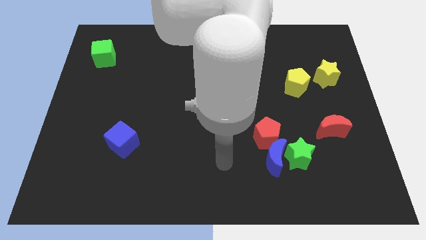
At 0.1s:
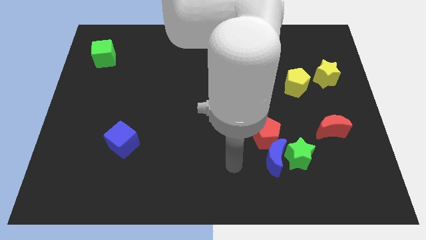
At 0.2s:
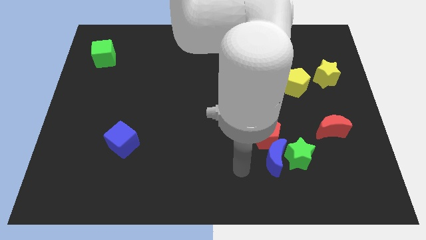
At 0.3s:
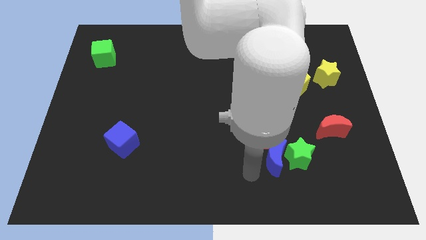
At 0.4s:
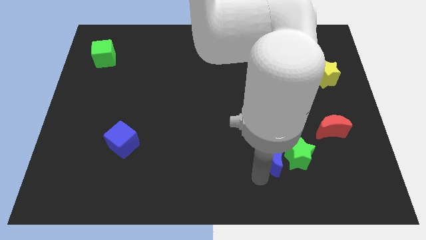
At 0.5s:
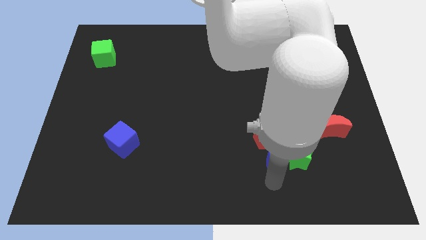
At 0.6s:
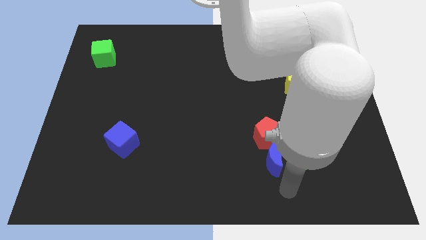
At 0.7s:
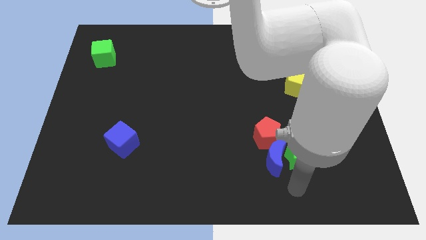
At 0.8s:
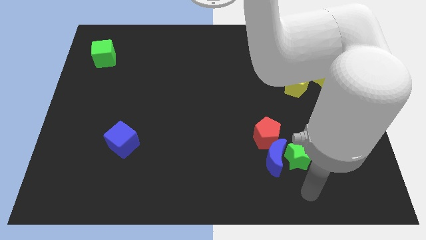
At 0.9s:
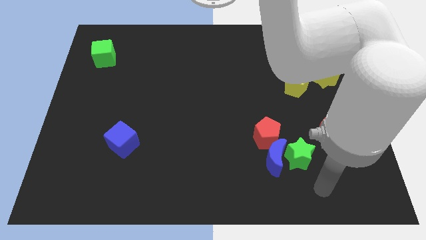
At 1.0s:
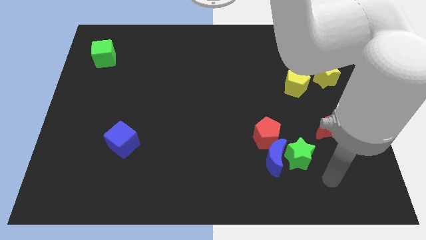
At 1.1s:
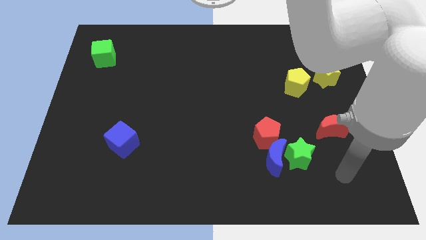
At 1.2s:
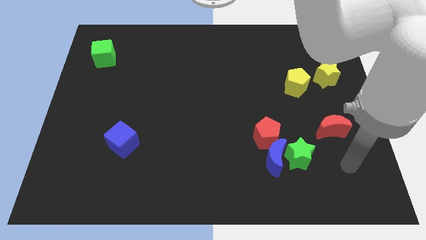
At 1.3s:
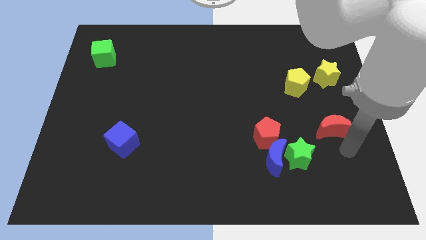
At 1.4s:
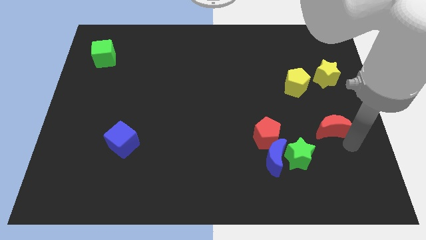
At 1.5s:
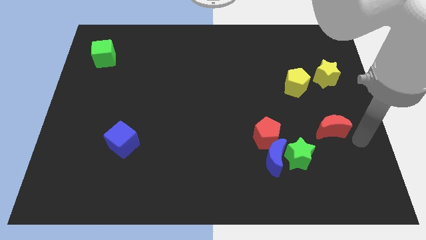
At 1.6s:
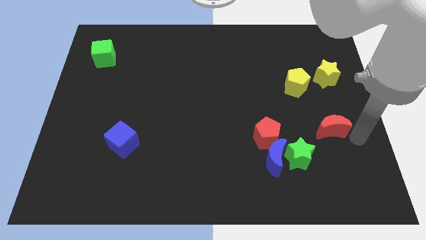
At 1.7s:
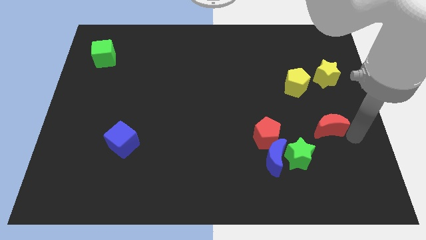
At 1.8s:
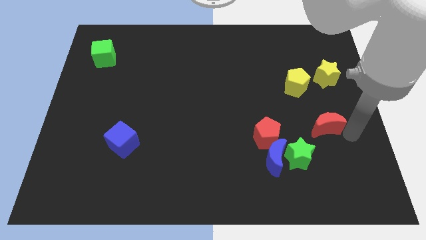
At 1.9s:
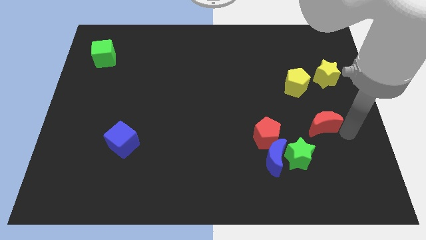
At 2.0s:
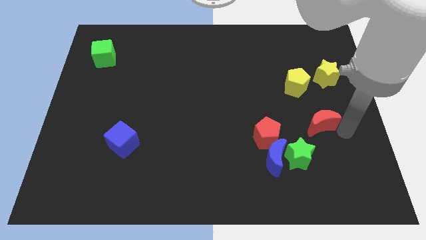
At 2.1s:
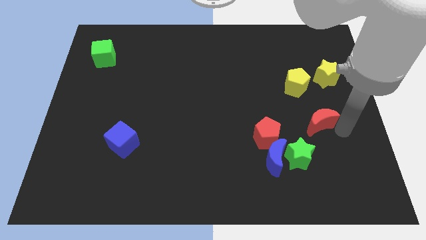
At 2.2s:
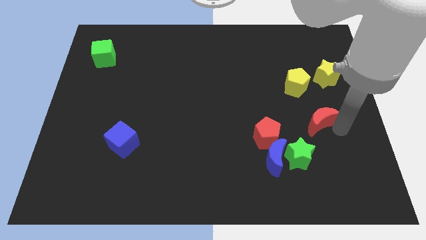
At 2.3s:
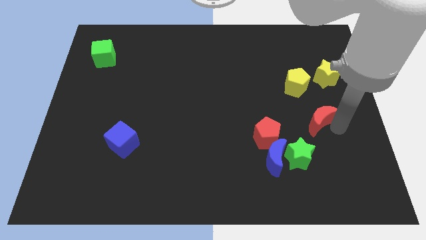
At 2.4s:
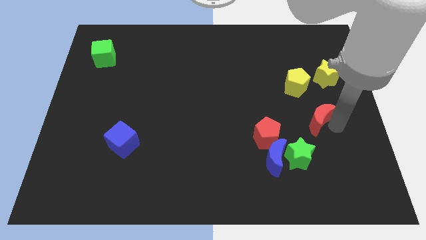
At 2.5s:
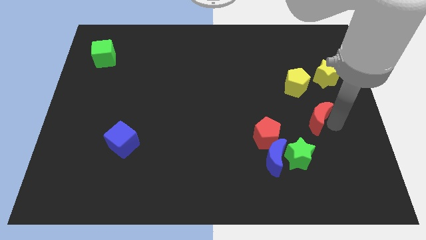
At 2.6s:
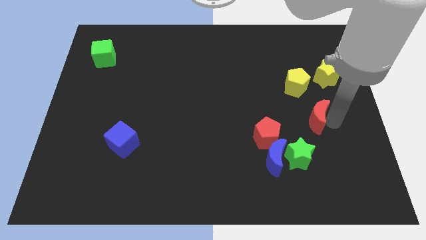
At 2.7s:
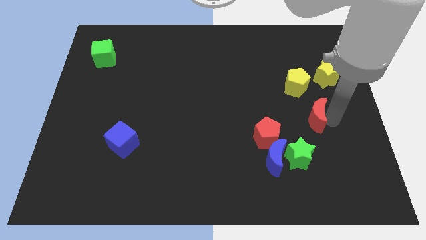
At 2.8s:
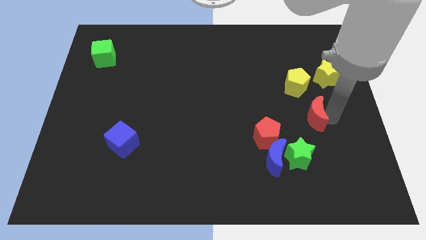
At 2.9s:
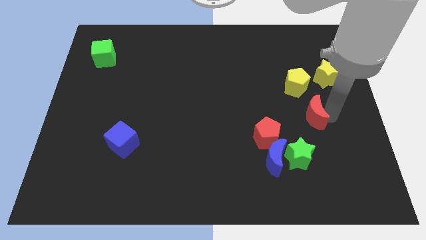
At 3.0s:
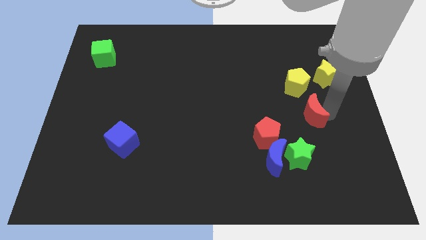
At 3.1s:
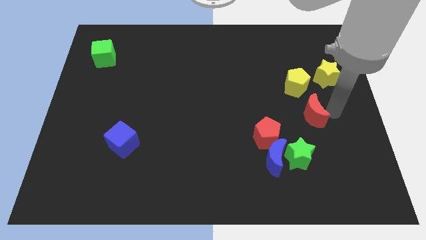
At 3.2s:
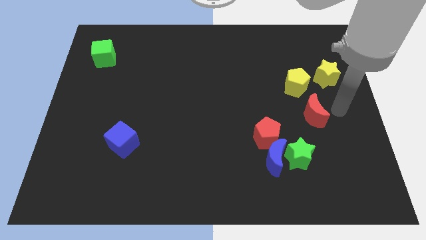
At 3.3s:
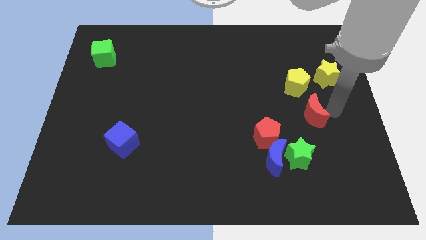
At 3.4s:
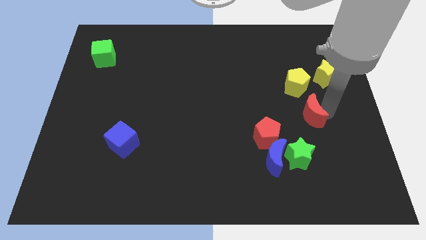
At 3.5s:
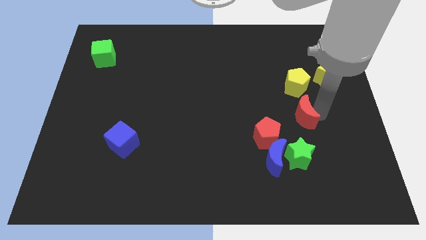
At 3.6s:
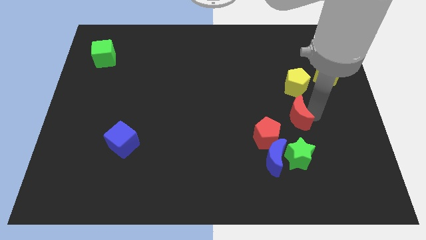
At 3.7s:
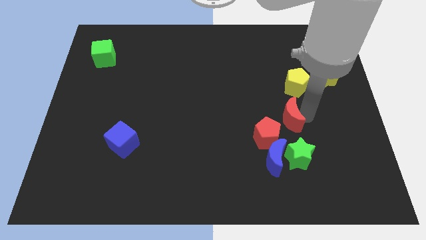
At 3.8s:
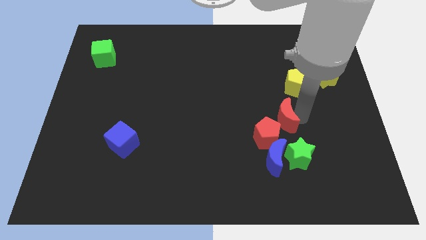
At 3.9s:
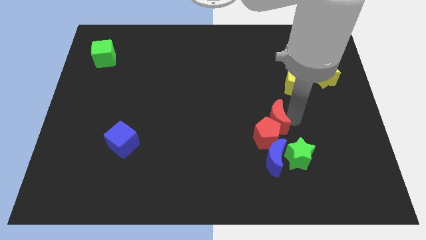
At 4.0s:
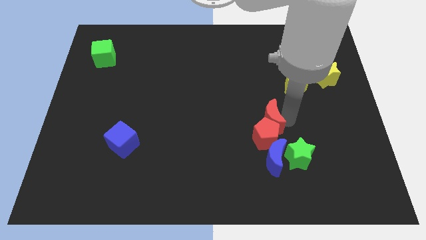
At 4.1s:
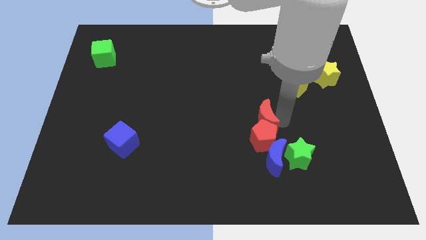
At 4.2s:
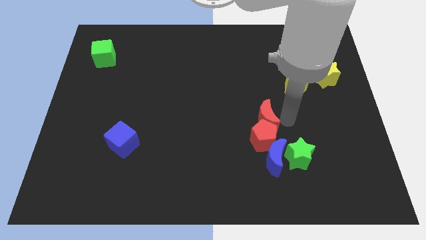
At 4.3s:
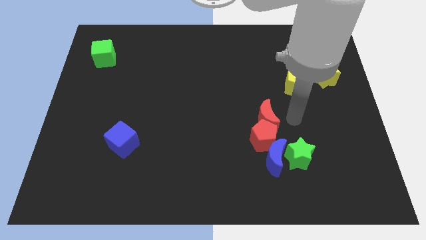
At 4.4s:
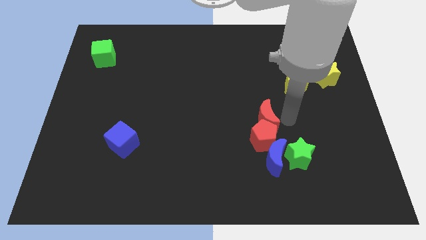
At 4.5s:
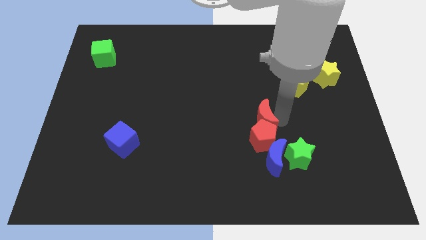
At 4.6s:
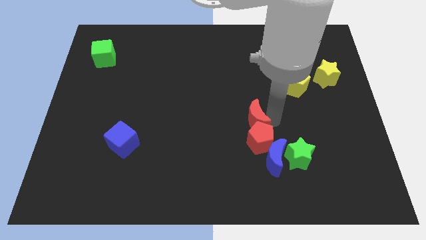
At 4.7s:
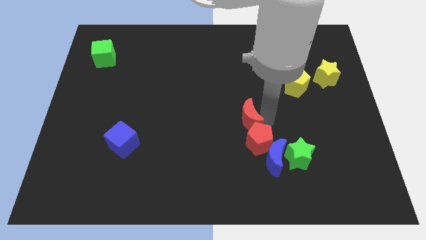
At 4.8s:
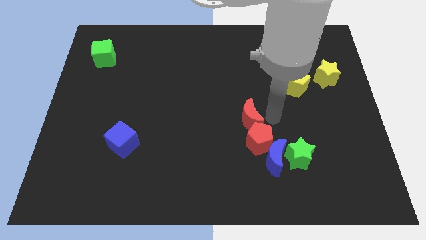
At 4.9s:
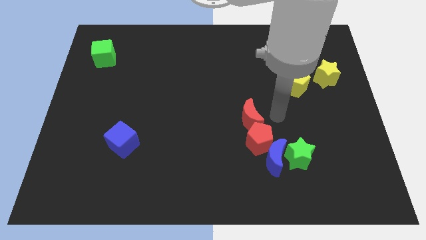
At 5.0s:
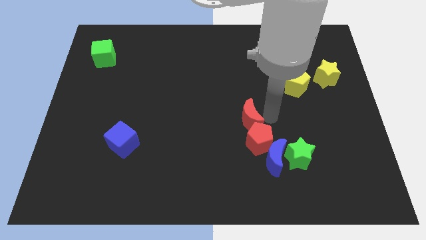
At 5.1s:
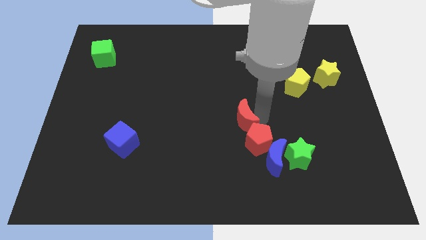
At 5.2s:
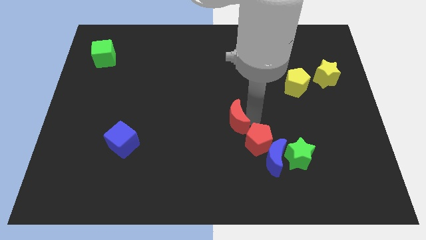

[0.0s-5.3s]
move the red moon left

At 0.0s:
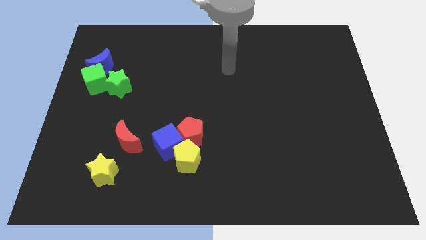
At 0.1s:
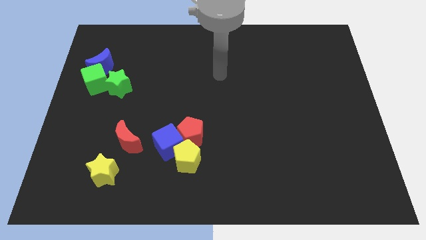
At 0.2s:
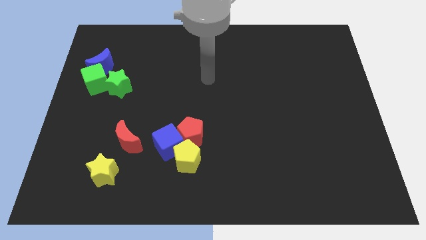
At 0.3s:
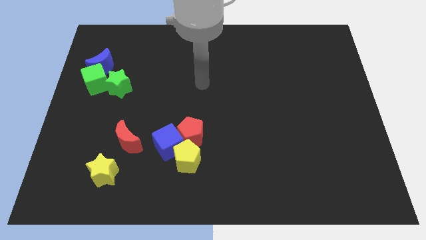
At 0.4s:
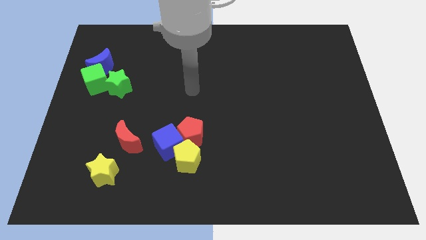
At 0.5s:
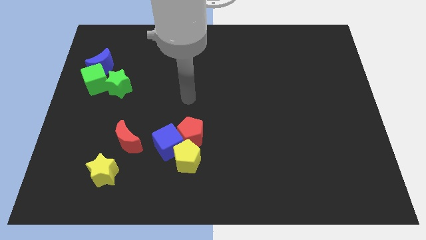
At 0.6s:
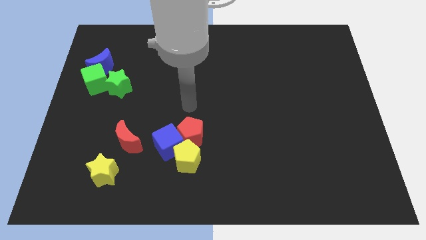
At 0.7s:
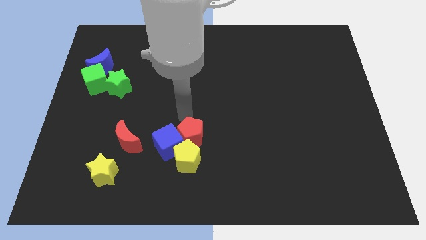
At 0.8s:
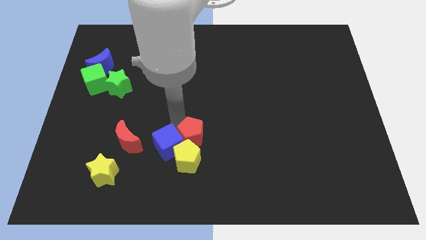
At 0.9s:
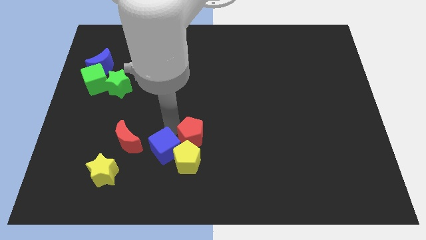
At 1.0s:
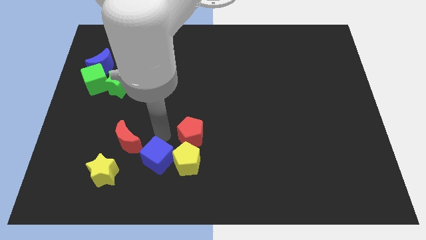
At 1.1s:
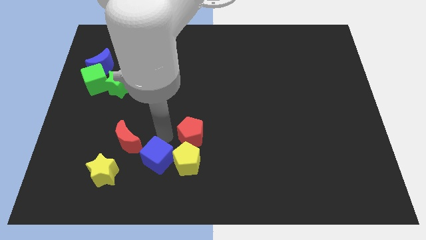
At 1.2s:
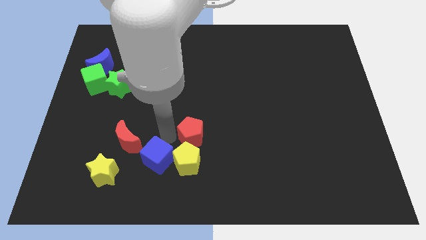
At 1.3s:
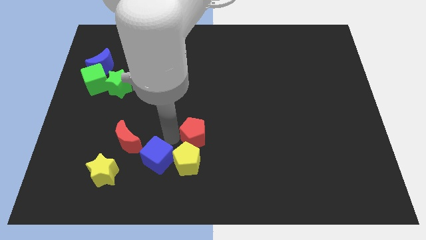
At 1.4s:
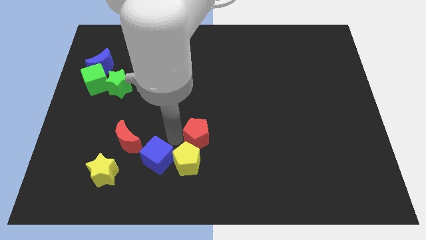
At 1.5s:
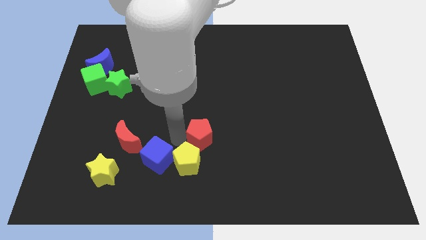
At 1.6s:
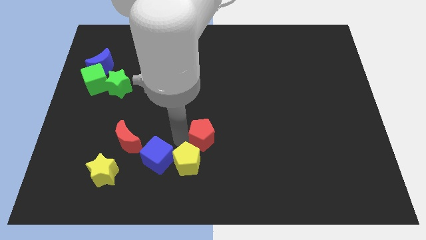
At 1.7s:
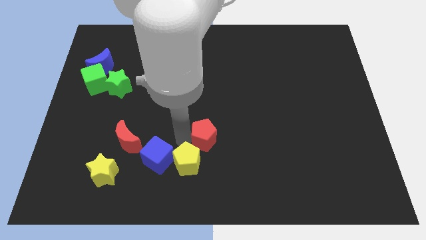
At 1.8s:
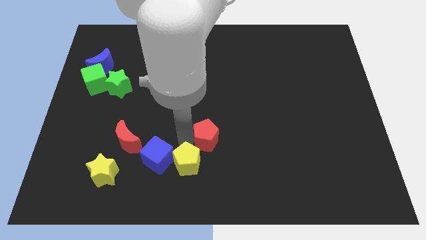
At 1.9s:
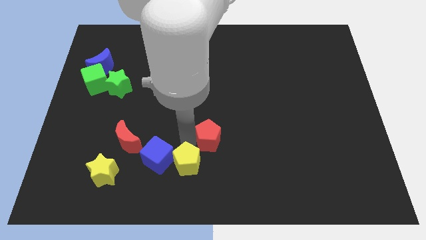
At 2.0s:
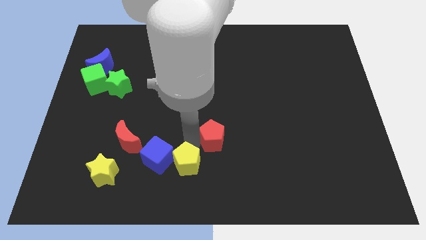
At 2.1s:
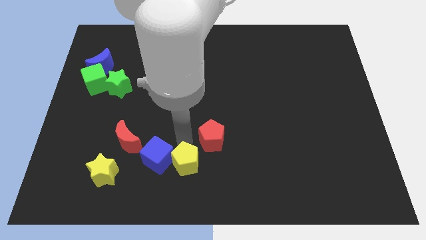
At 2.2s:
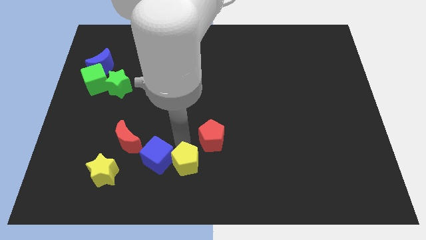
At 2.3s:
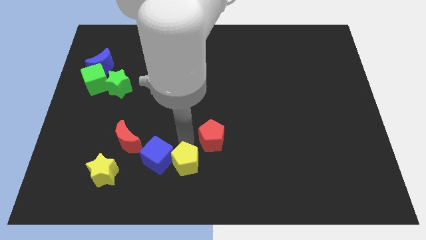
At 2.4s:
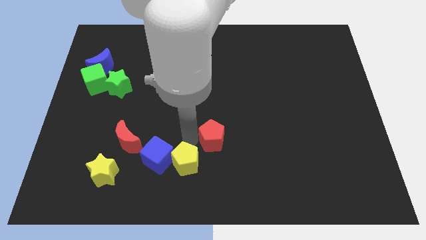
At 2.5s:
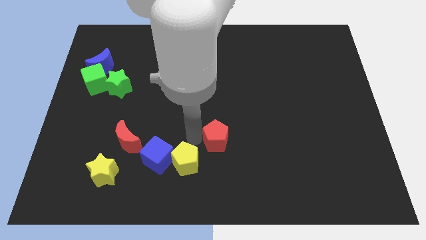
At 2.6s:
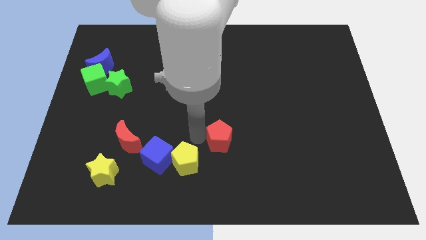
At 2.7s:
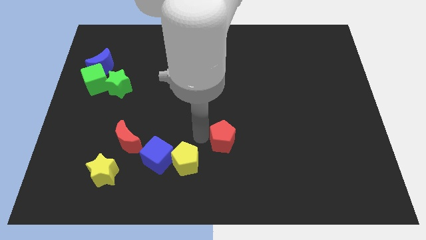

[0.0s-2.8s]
slightly push the red pentagon right

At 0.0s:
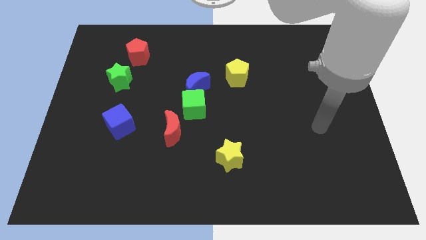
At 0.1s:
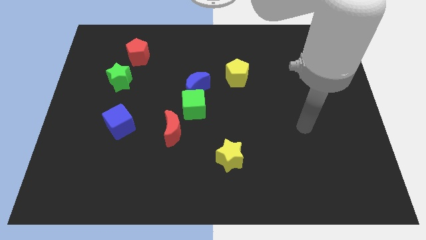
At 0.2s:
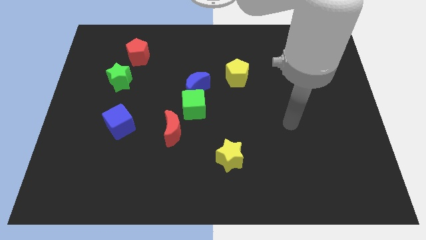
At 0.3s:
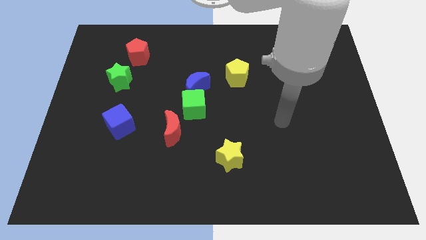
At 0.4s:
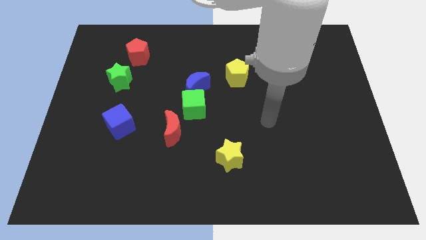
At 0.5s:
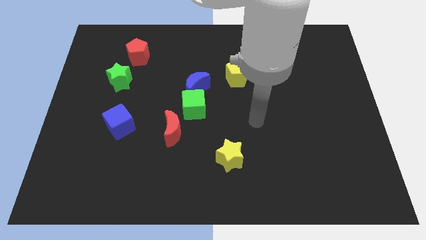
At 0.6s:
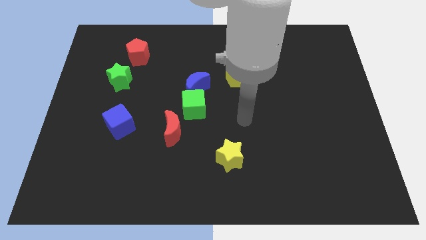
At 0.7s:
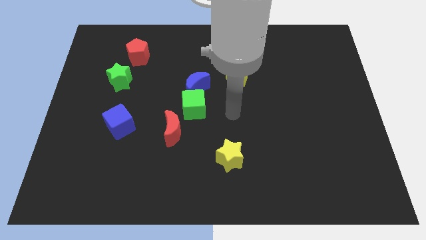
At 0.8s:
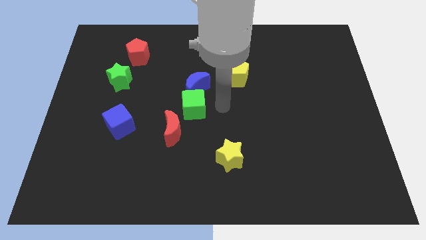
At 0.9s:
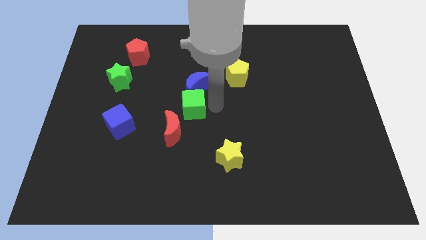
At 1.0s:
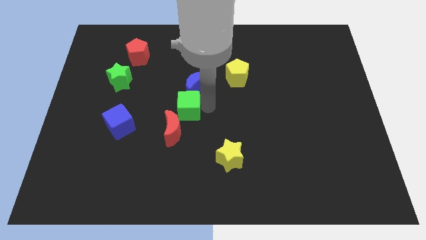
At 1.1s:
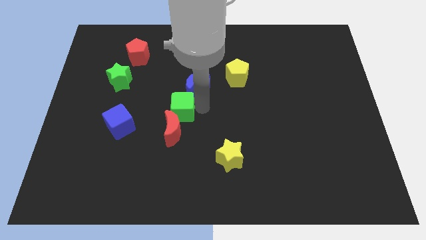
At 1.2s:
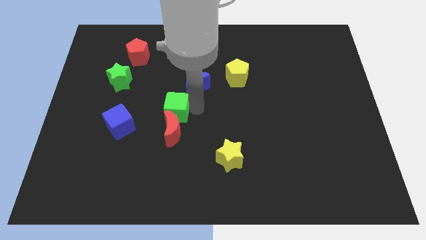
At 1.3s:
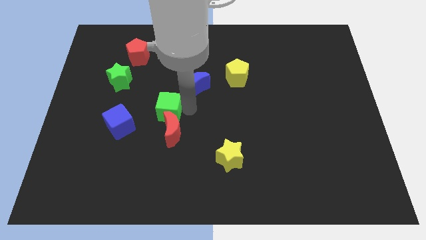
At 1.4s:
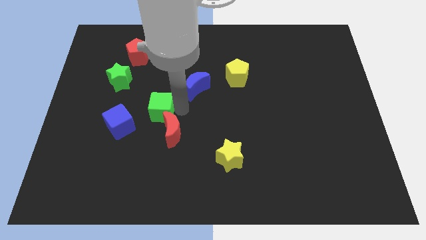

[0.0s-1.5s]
push the green cube to the left a little bit
